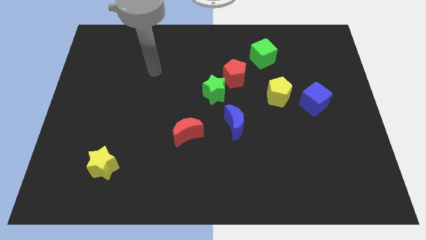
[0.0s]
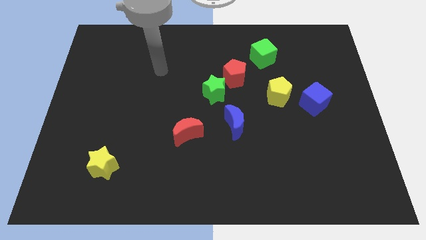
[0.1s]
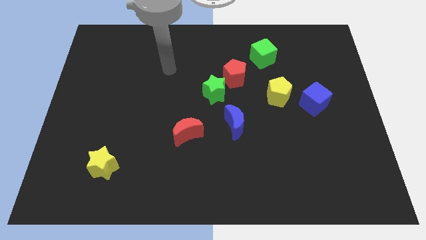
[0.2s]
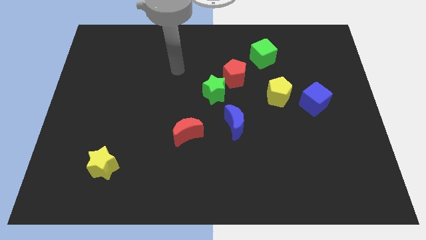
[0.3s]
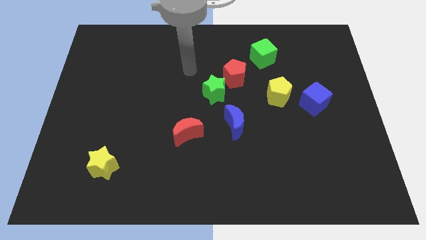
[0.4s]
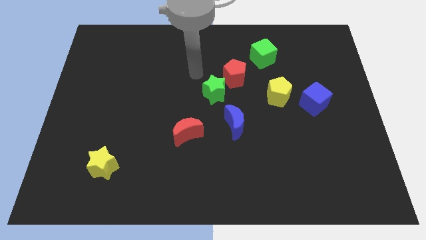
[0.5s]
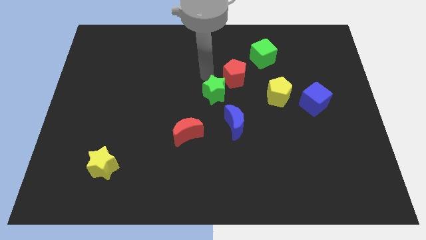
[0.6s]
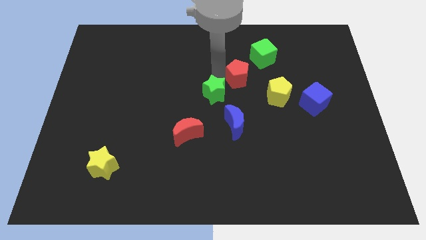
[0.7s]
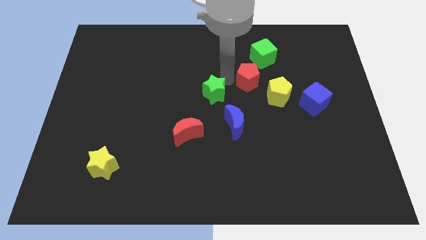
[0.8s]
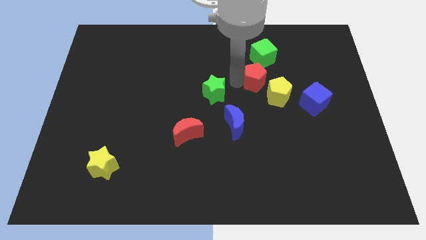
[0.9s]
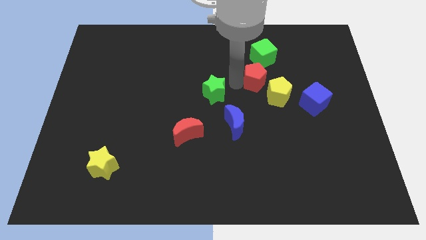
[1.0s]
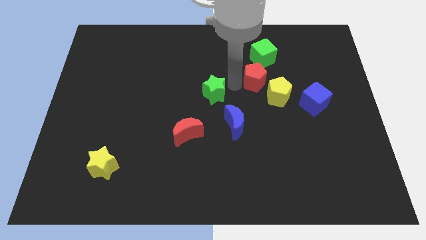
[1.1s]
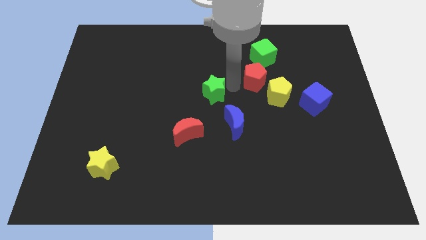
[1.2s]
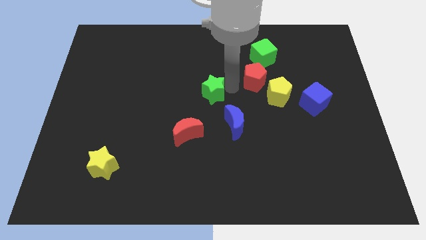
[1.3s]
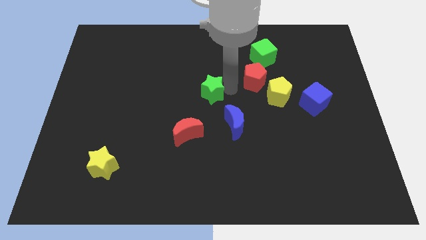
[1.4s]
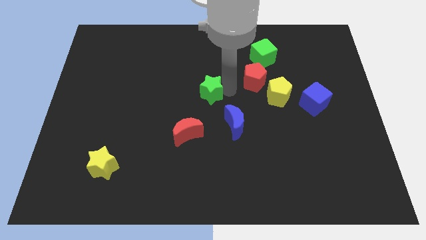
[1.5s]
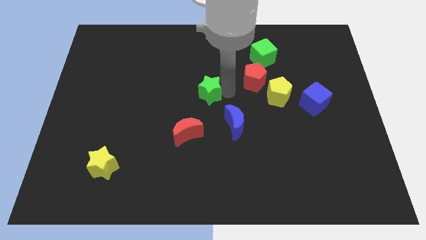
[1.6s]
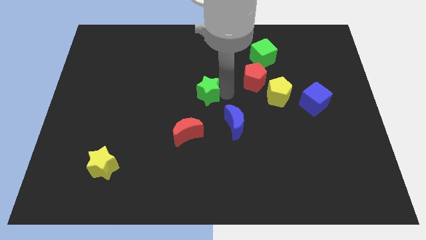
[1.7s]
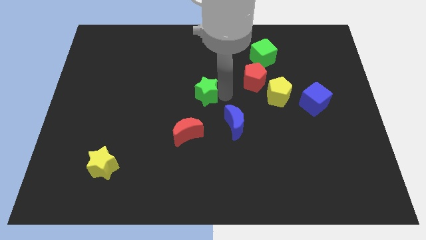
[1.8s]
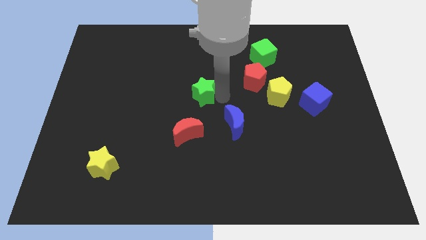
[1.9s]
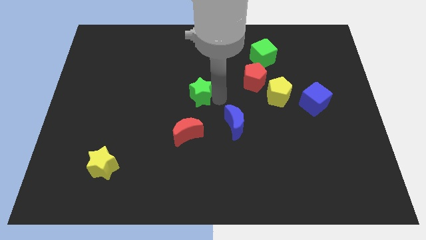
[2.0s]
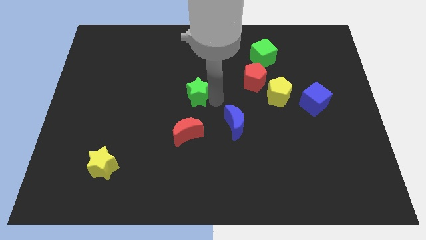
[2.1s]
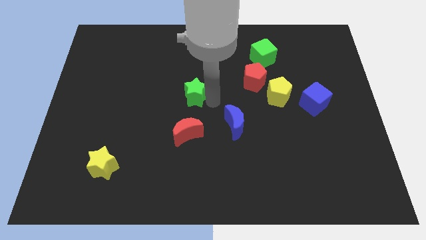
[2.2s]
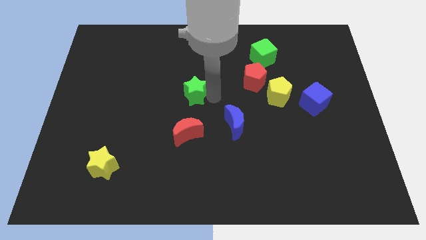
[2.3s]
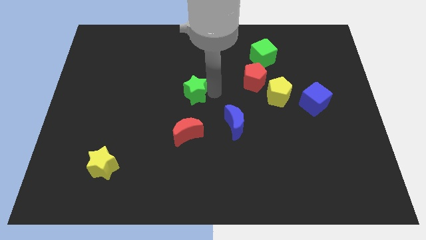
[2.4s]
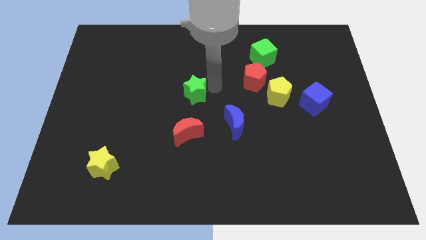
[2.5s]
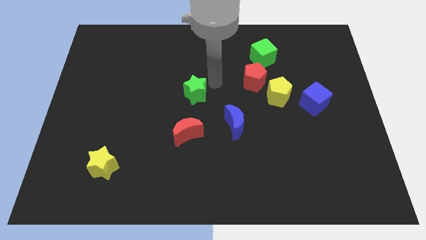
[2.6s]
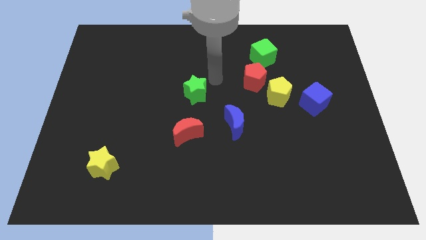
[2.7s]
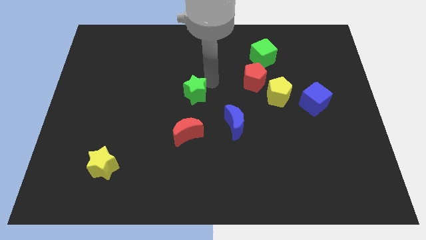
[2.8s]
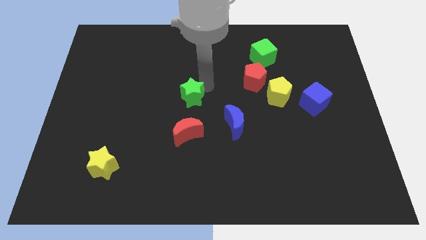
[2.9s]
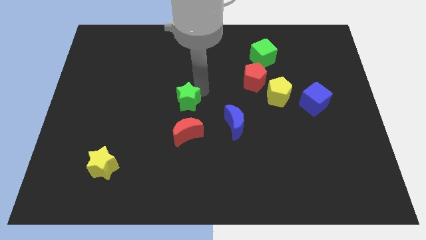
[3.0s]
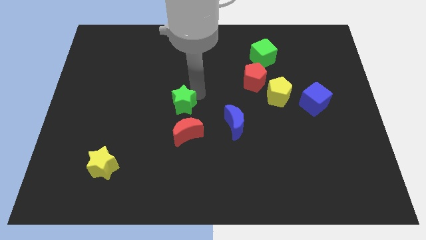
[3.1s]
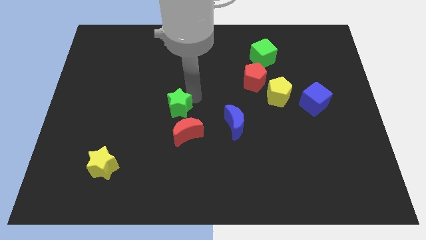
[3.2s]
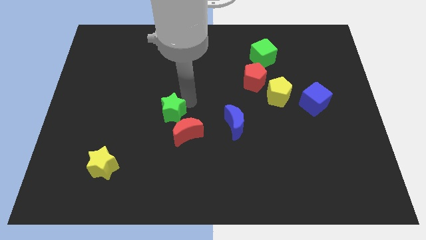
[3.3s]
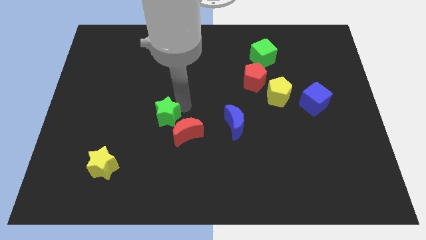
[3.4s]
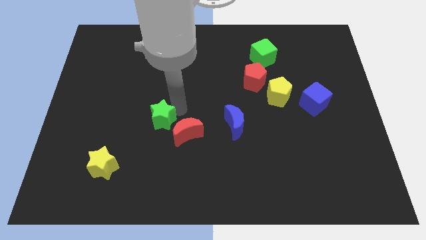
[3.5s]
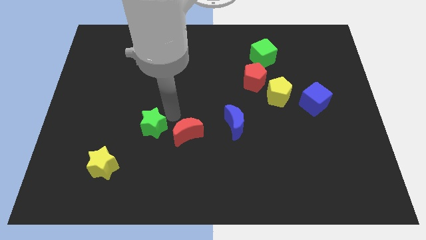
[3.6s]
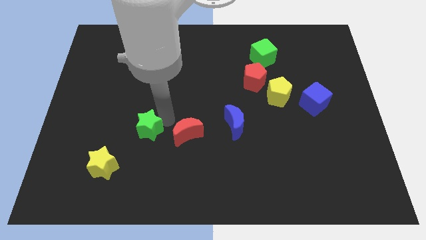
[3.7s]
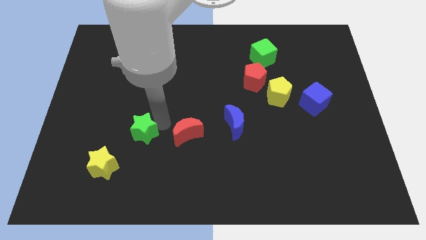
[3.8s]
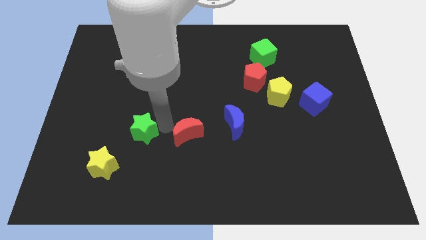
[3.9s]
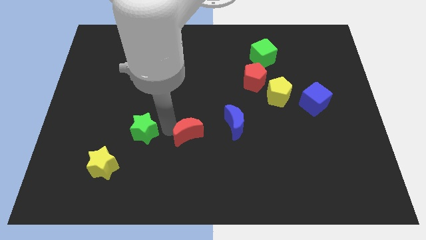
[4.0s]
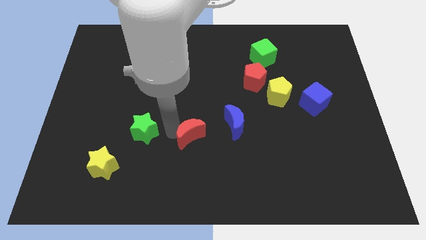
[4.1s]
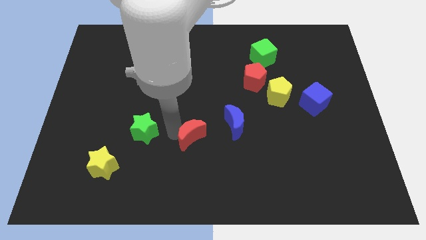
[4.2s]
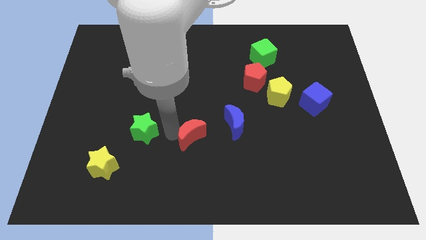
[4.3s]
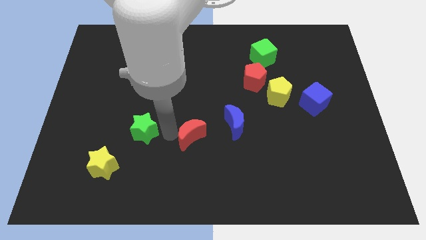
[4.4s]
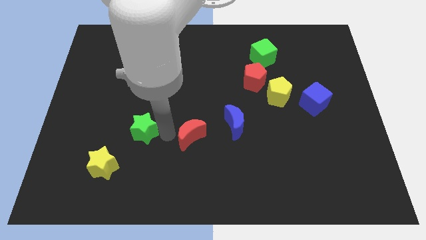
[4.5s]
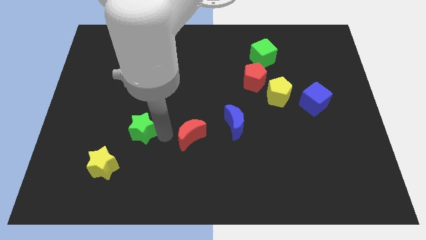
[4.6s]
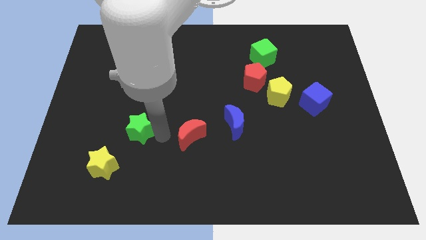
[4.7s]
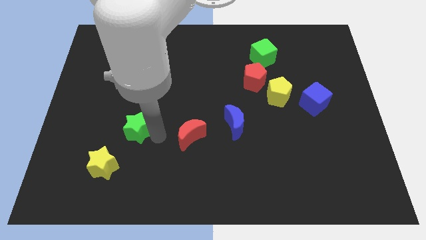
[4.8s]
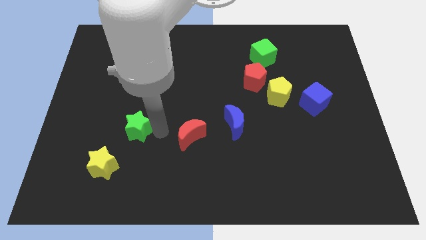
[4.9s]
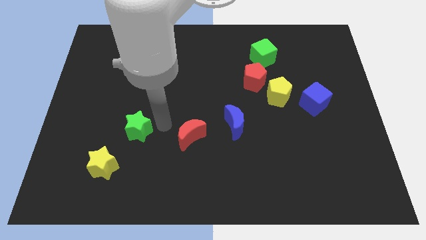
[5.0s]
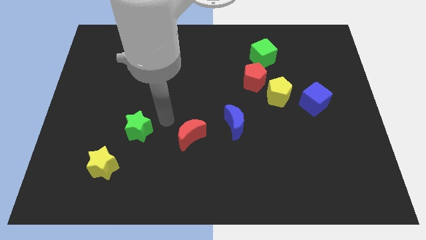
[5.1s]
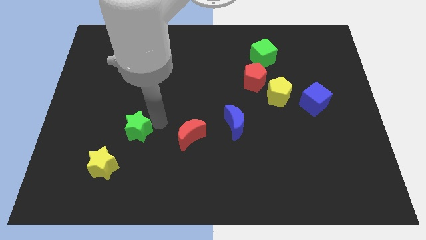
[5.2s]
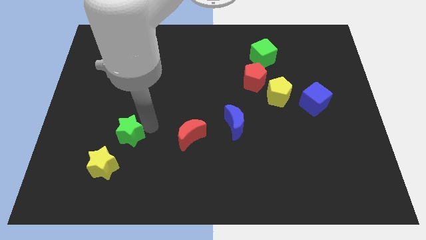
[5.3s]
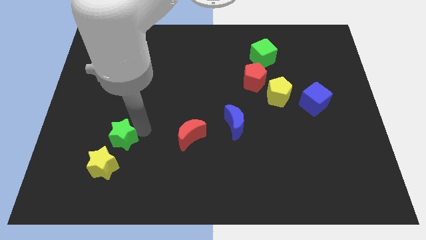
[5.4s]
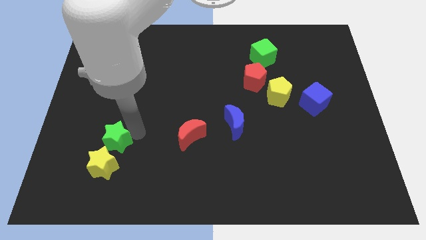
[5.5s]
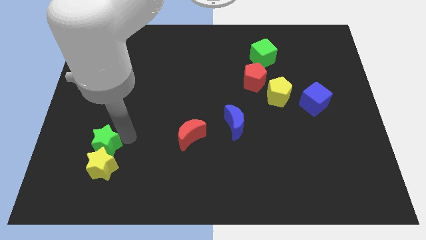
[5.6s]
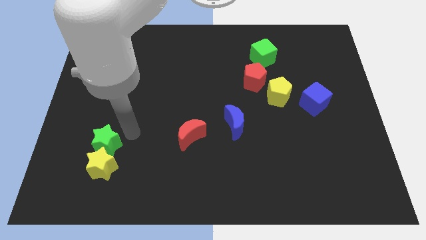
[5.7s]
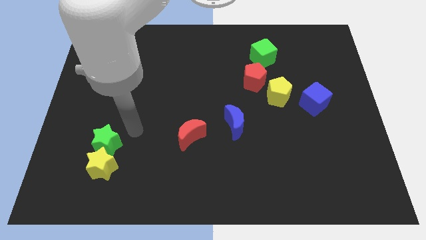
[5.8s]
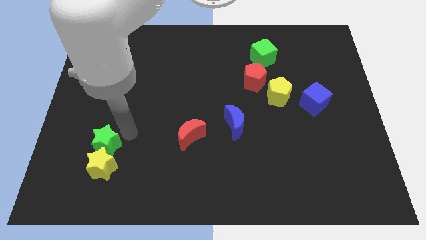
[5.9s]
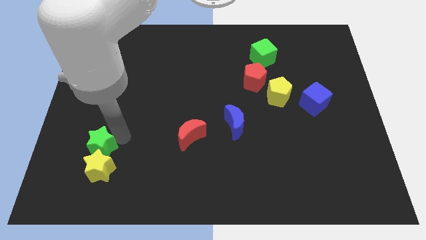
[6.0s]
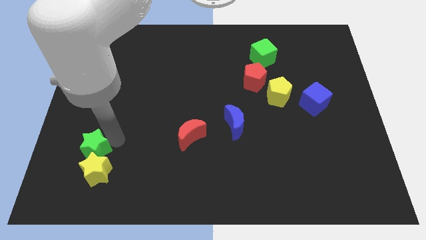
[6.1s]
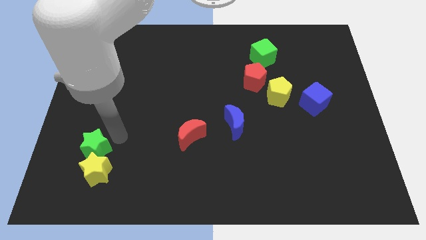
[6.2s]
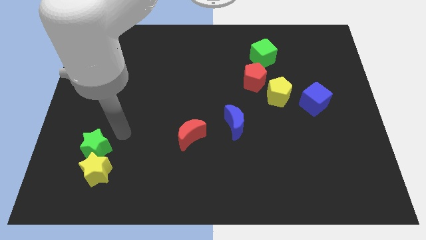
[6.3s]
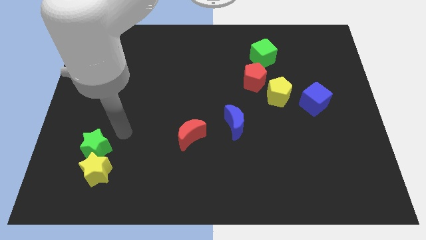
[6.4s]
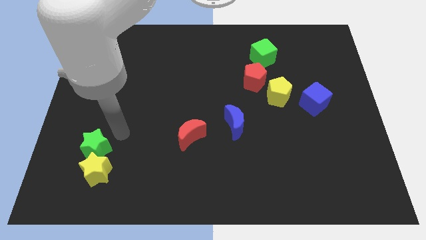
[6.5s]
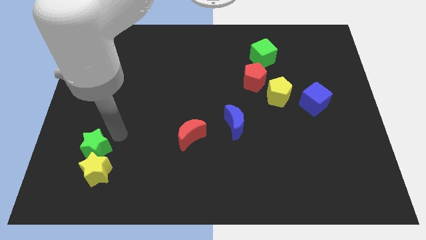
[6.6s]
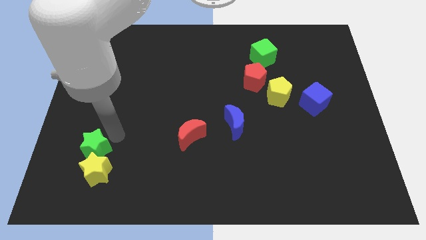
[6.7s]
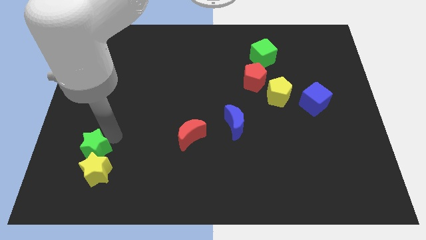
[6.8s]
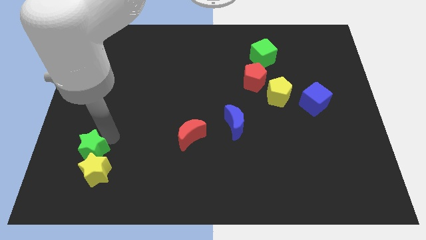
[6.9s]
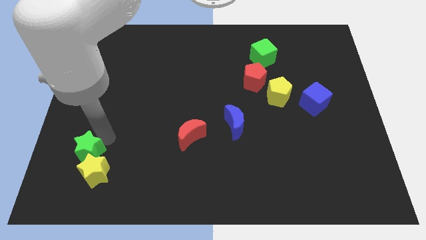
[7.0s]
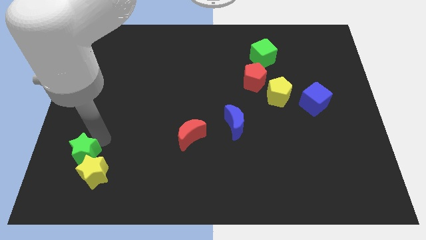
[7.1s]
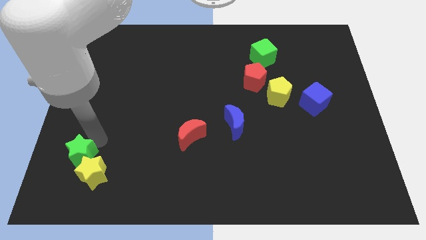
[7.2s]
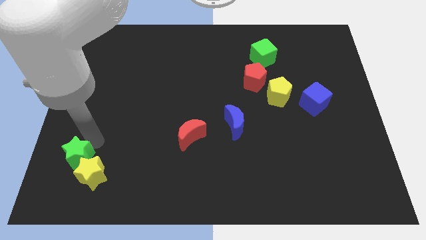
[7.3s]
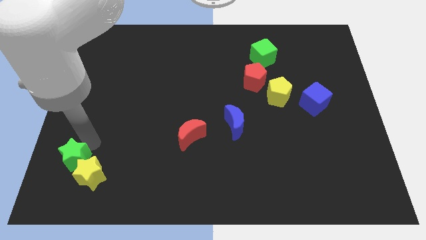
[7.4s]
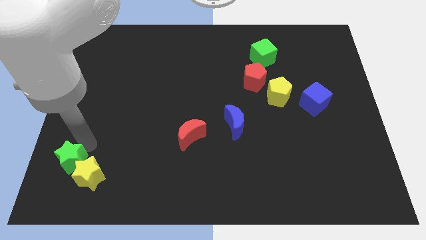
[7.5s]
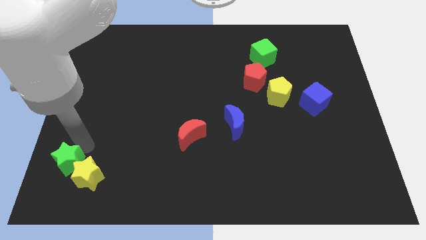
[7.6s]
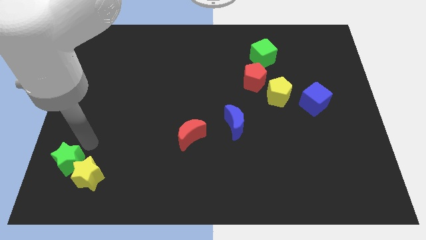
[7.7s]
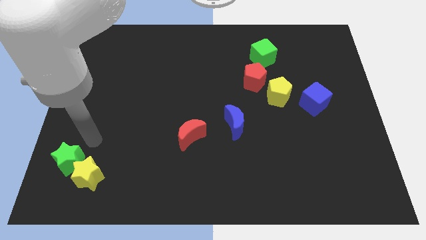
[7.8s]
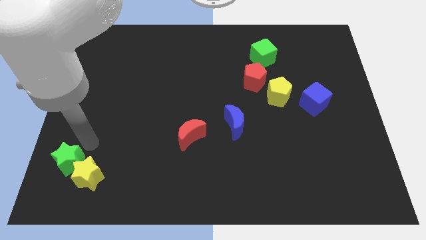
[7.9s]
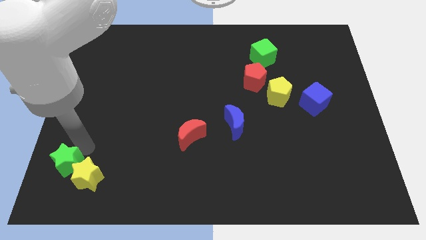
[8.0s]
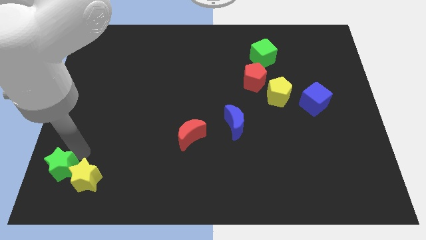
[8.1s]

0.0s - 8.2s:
slide the green star to the bottom left
